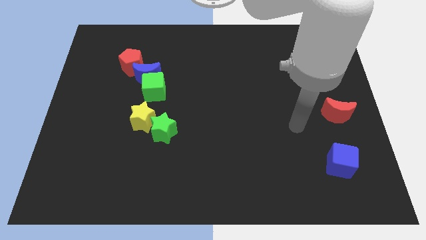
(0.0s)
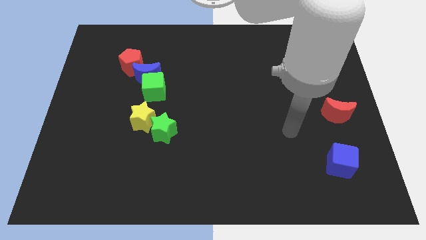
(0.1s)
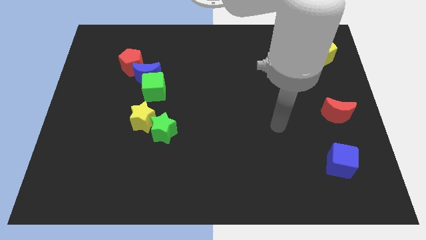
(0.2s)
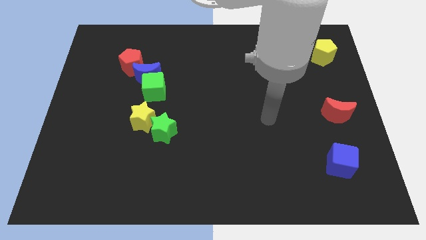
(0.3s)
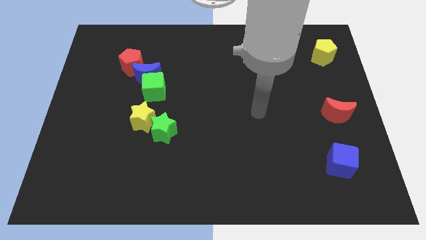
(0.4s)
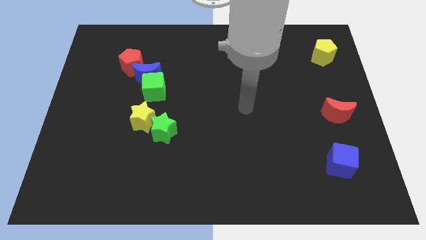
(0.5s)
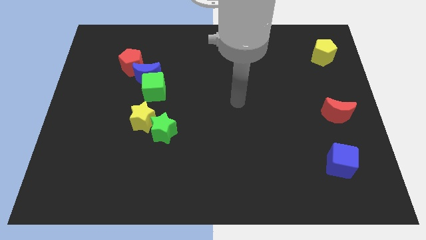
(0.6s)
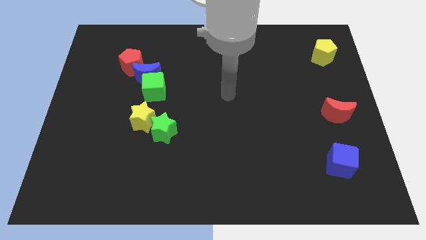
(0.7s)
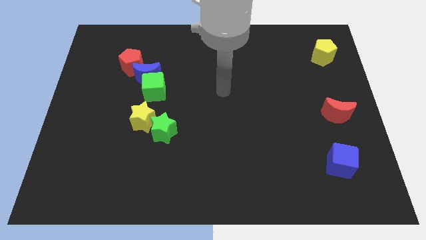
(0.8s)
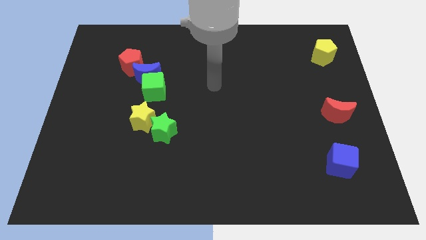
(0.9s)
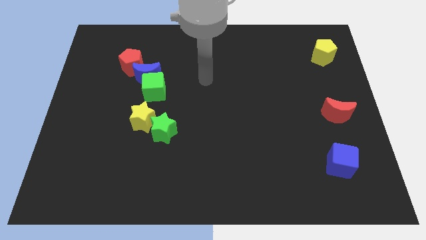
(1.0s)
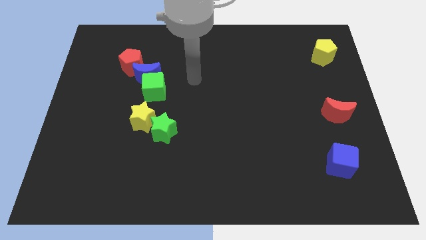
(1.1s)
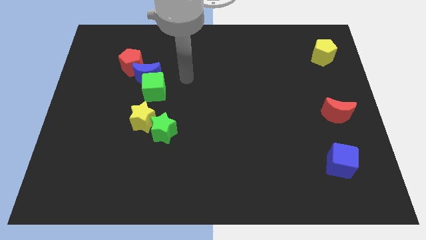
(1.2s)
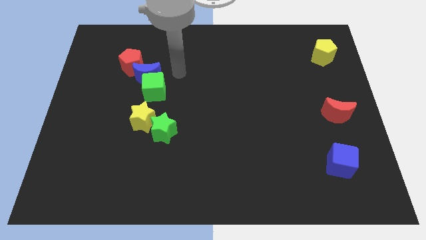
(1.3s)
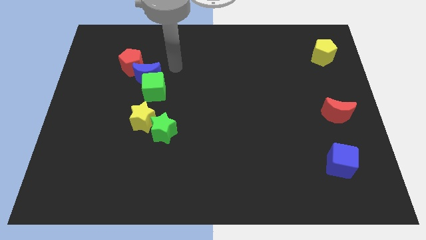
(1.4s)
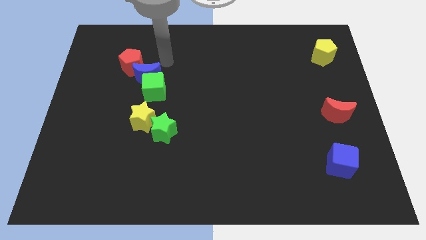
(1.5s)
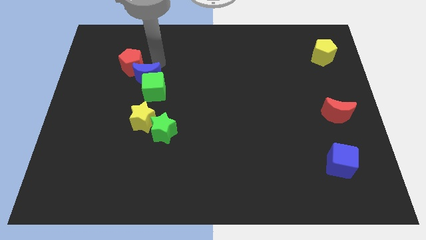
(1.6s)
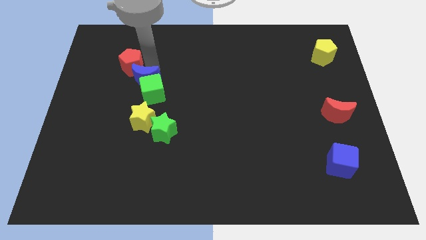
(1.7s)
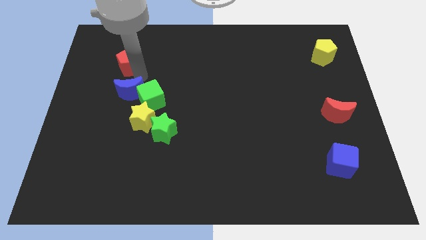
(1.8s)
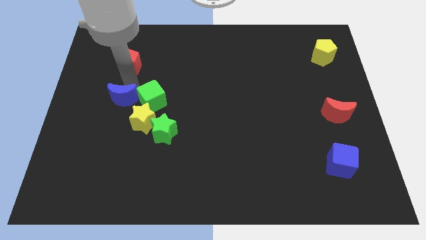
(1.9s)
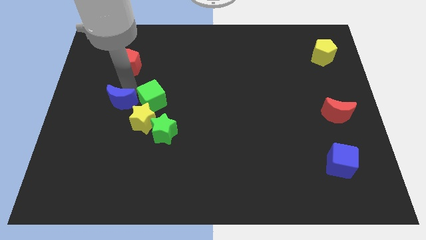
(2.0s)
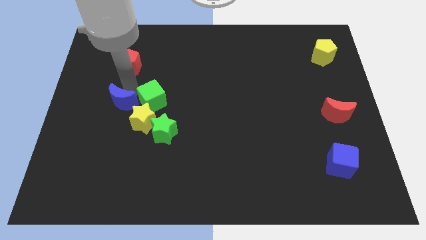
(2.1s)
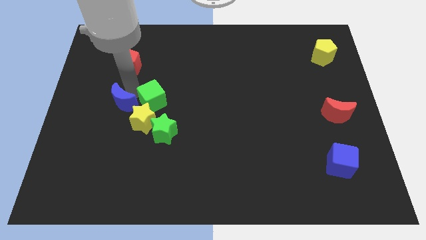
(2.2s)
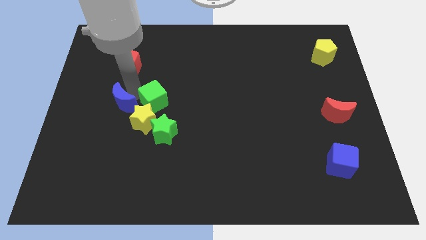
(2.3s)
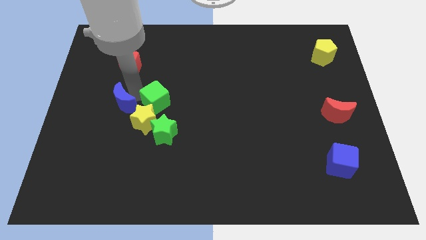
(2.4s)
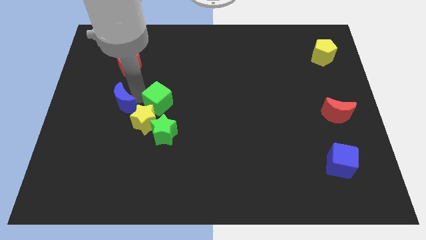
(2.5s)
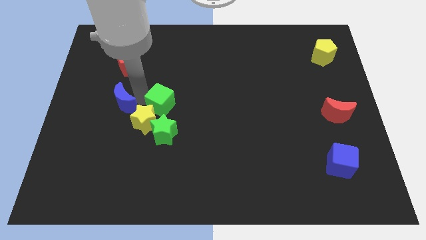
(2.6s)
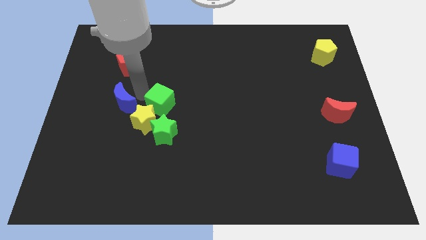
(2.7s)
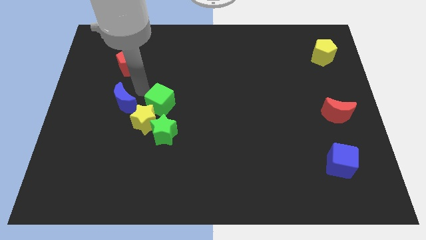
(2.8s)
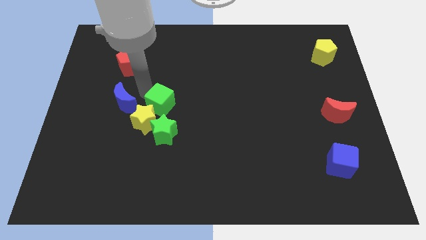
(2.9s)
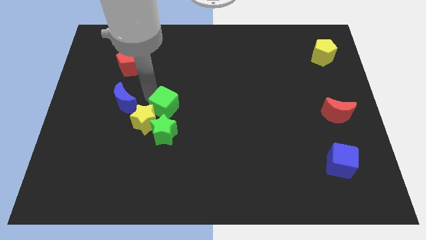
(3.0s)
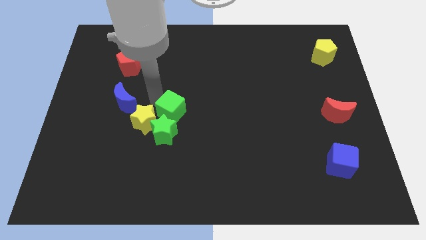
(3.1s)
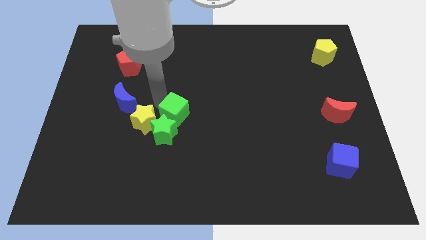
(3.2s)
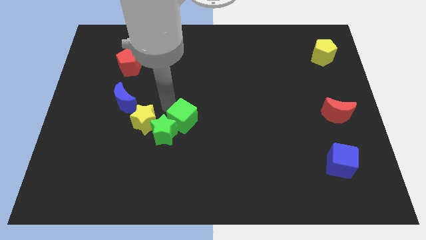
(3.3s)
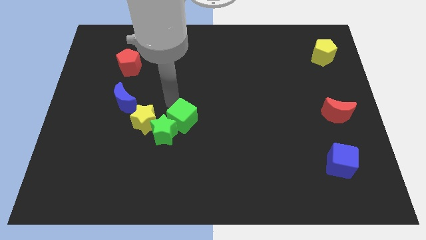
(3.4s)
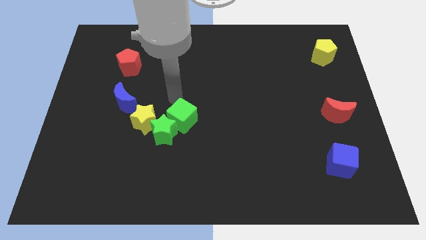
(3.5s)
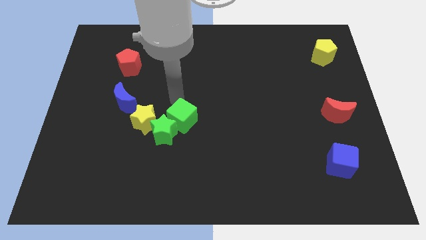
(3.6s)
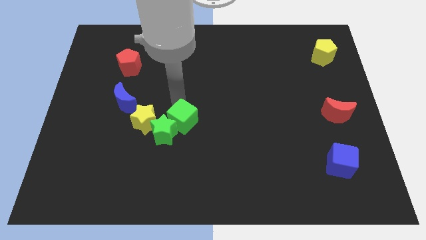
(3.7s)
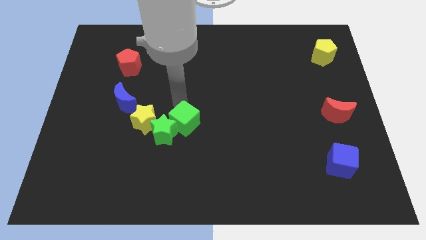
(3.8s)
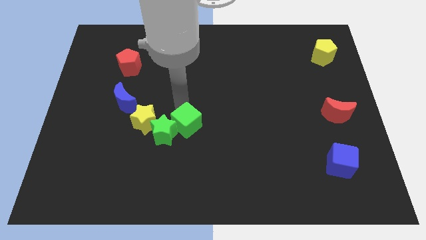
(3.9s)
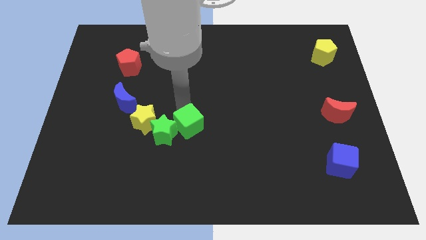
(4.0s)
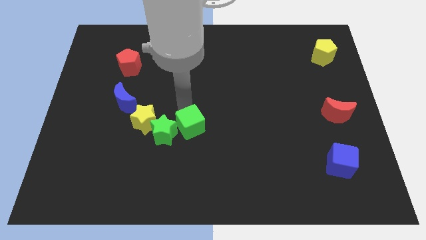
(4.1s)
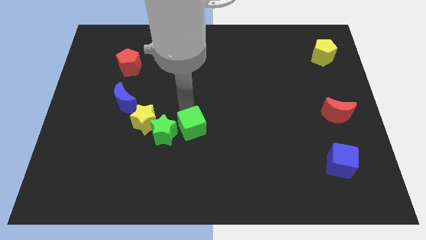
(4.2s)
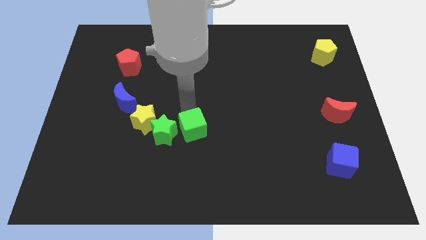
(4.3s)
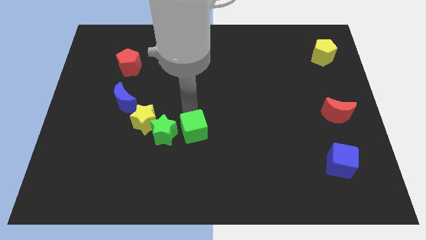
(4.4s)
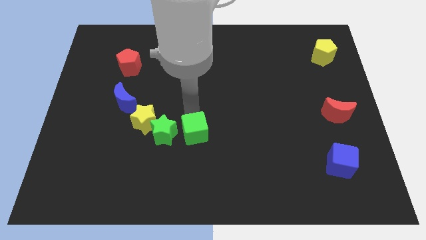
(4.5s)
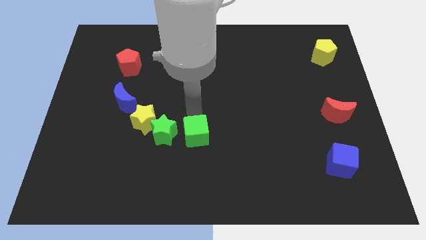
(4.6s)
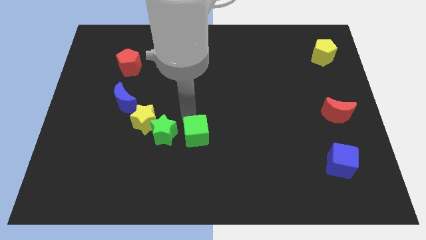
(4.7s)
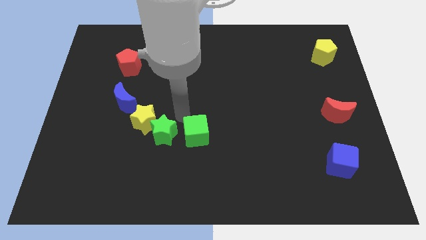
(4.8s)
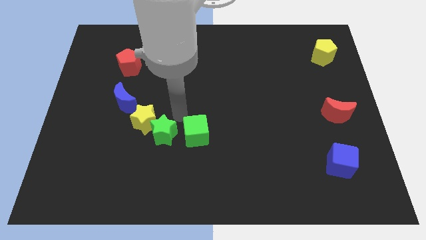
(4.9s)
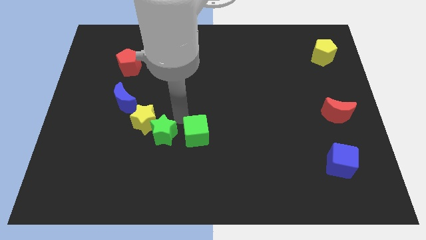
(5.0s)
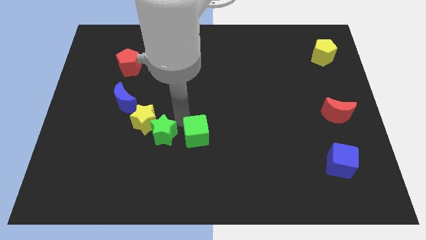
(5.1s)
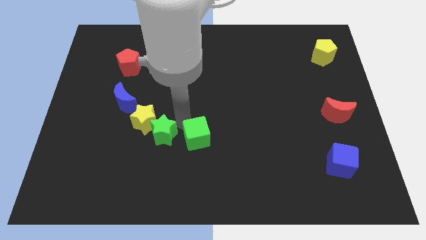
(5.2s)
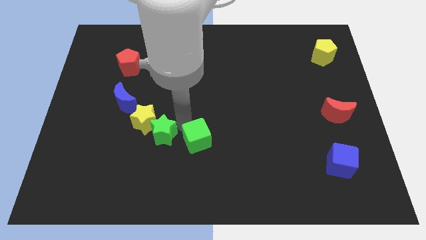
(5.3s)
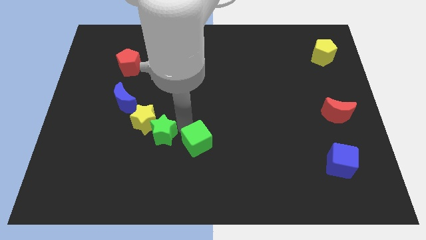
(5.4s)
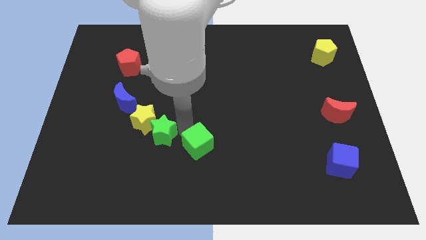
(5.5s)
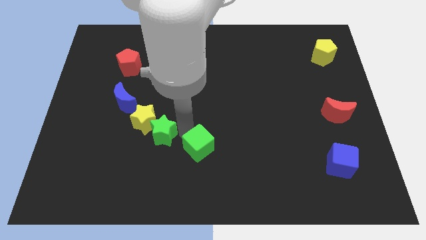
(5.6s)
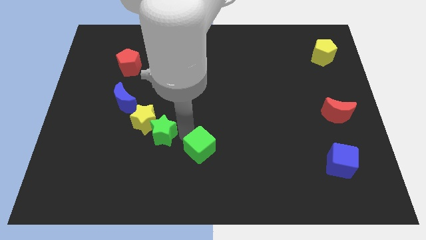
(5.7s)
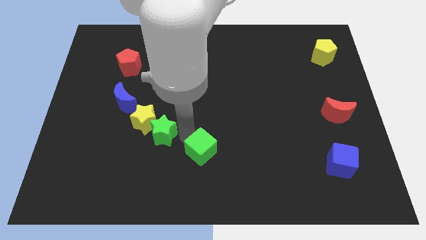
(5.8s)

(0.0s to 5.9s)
slide the green cube diagonally downwards and to the right

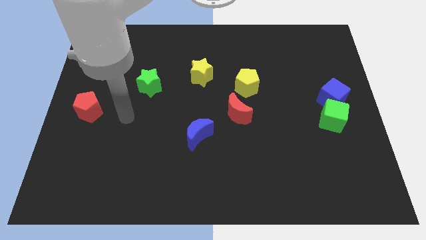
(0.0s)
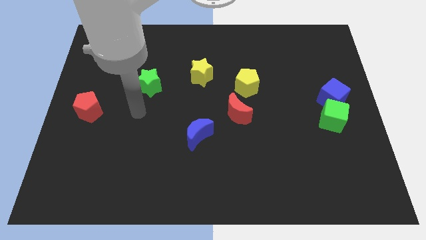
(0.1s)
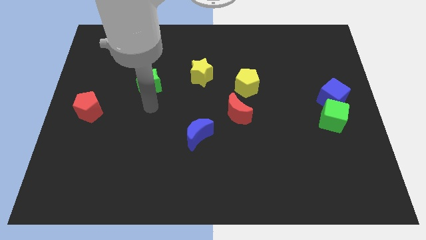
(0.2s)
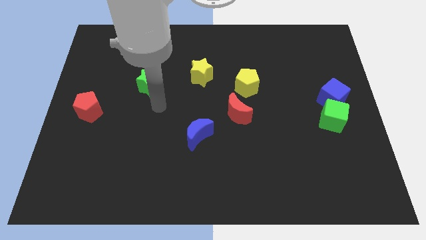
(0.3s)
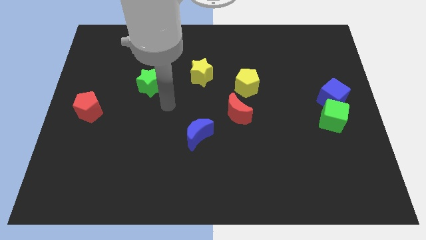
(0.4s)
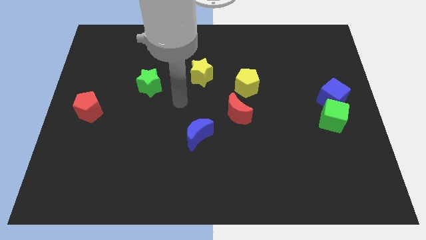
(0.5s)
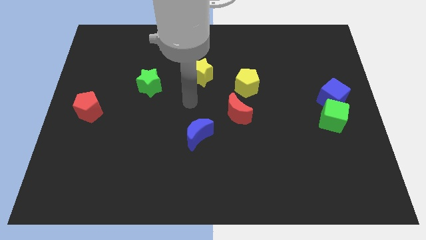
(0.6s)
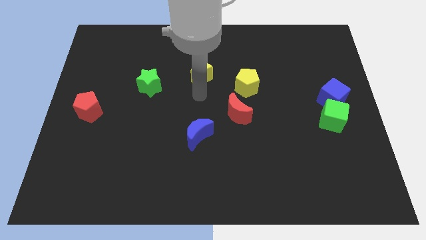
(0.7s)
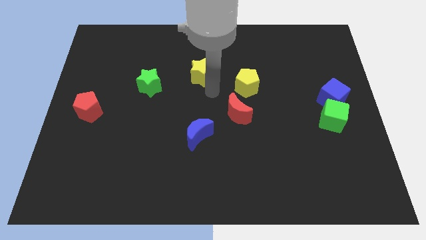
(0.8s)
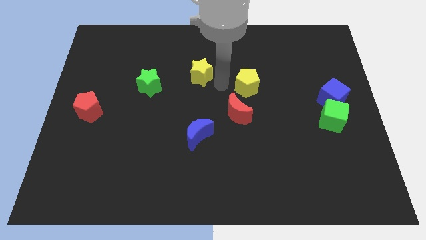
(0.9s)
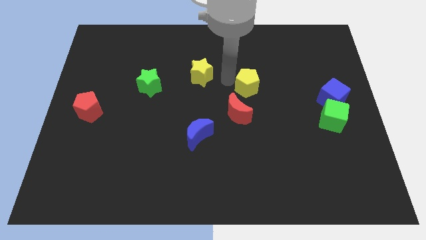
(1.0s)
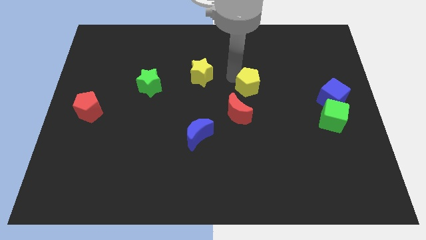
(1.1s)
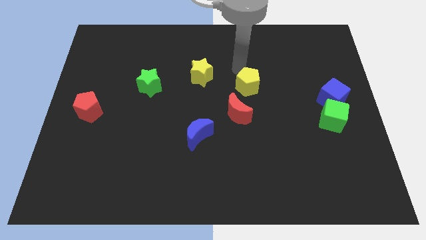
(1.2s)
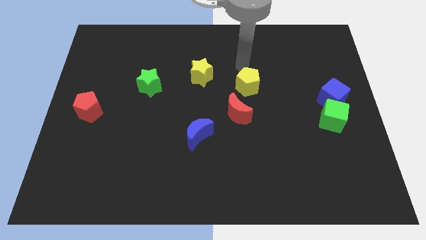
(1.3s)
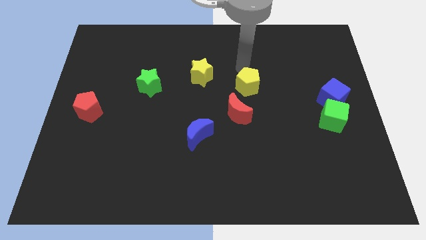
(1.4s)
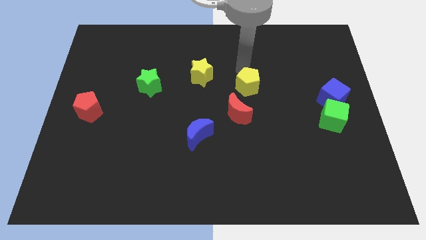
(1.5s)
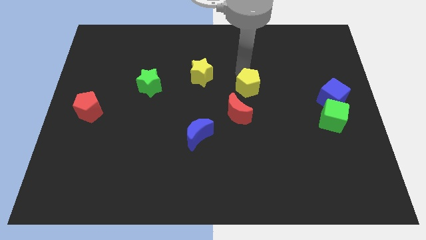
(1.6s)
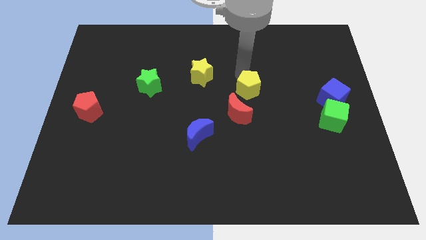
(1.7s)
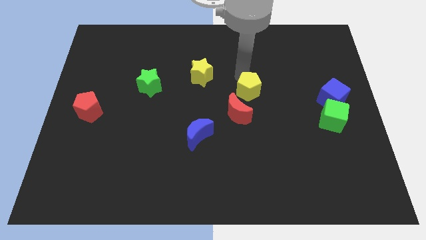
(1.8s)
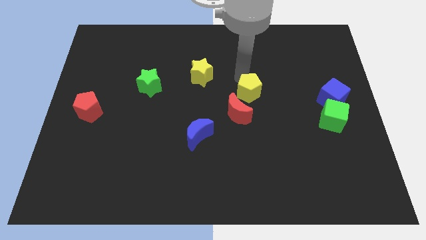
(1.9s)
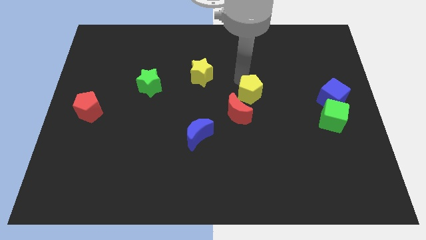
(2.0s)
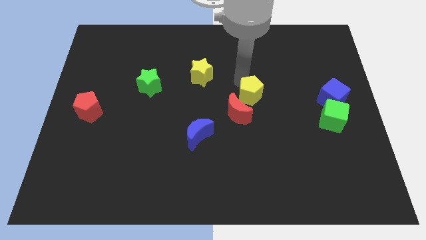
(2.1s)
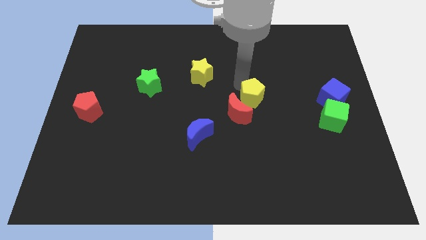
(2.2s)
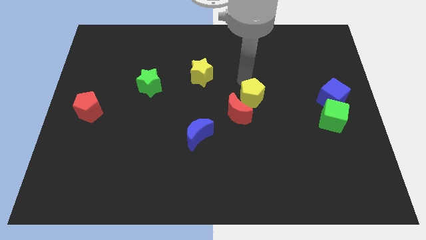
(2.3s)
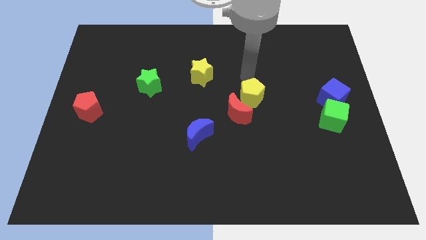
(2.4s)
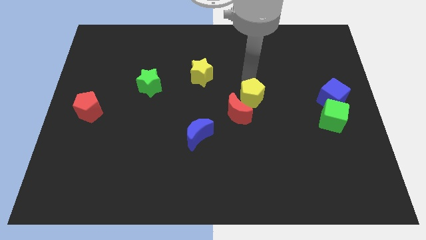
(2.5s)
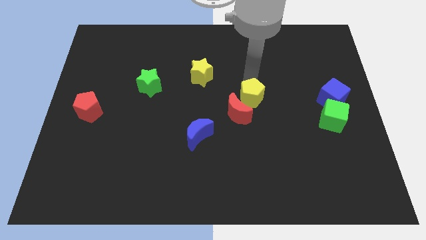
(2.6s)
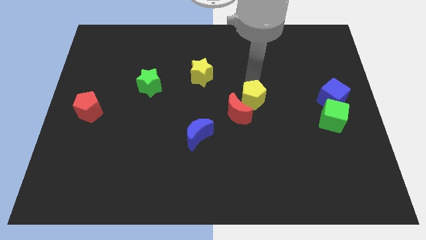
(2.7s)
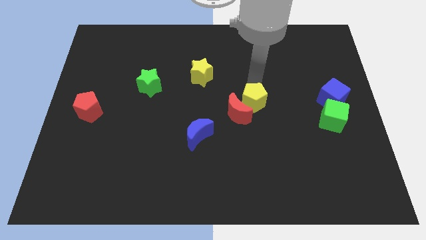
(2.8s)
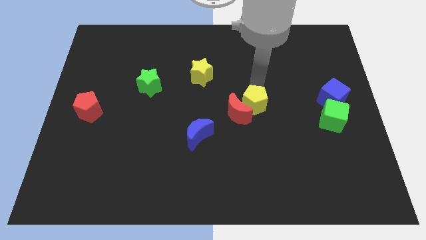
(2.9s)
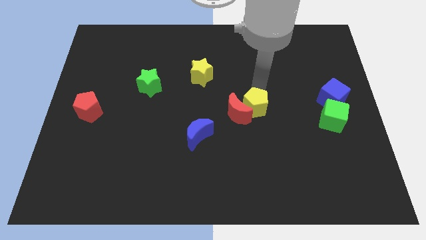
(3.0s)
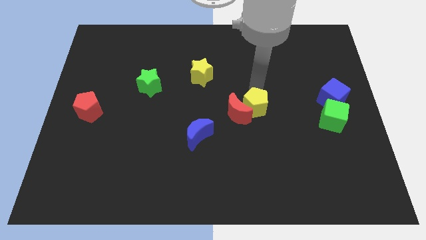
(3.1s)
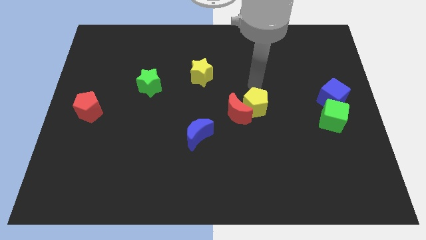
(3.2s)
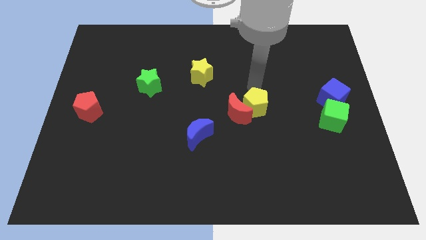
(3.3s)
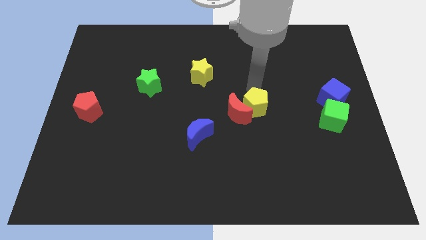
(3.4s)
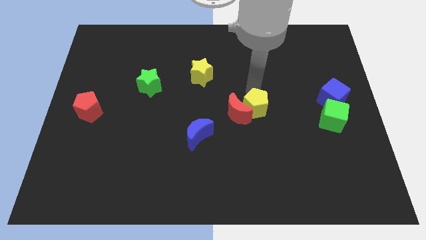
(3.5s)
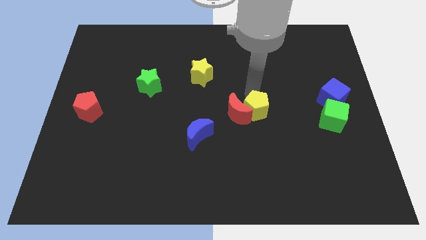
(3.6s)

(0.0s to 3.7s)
slide the yellow pentagon somewhat down
